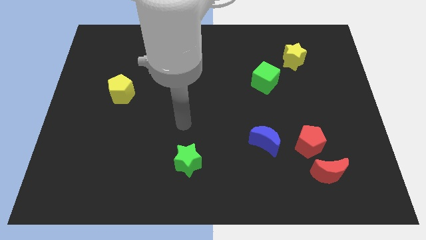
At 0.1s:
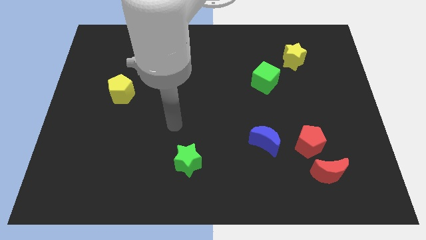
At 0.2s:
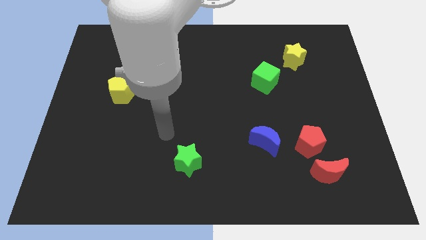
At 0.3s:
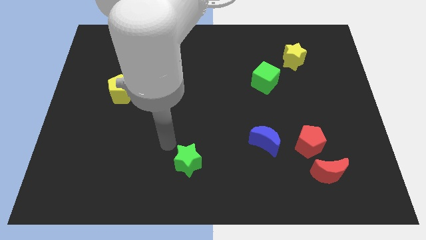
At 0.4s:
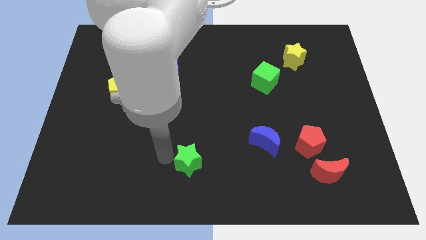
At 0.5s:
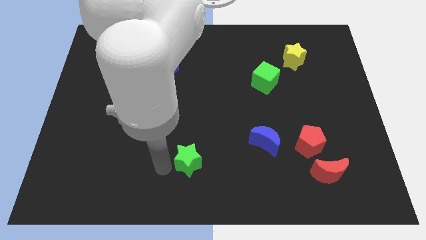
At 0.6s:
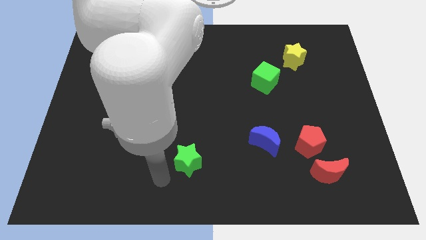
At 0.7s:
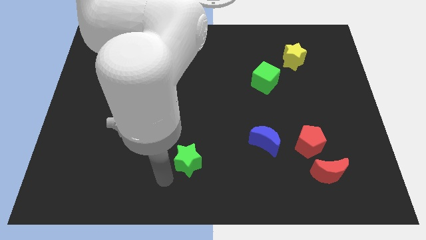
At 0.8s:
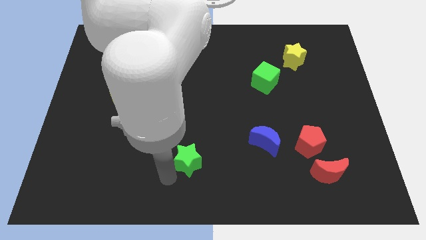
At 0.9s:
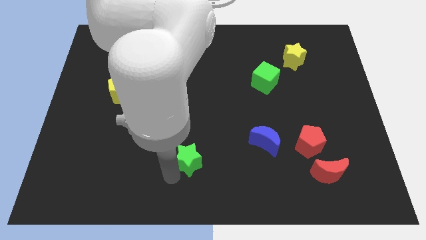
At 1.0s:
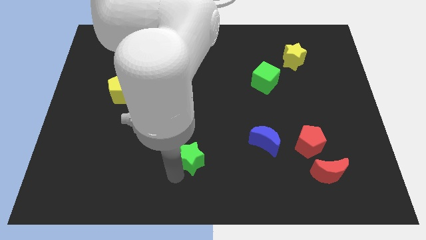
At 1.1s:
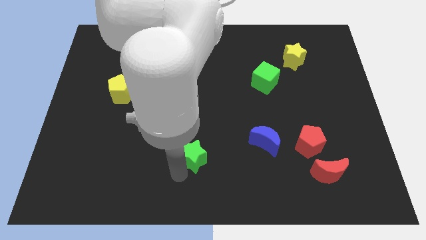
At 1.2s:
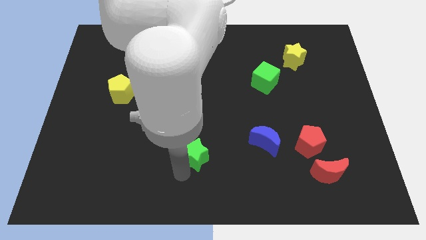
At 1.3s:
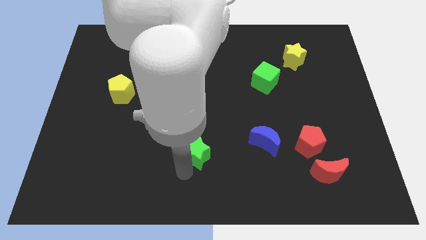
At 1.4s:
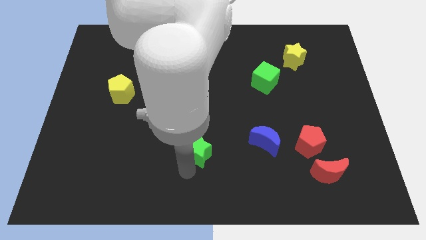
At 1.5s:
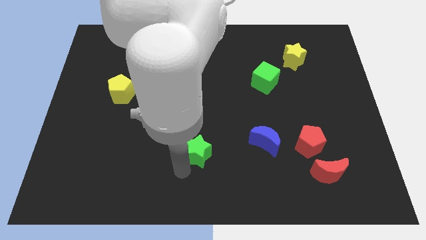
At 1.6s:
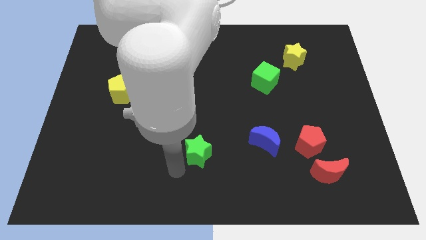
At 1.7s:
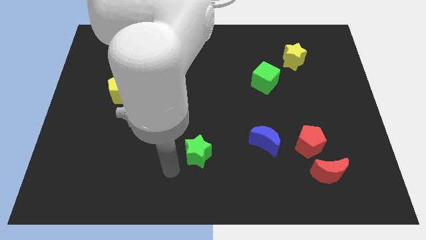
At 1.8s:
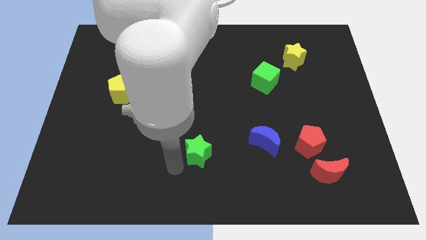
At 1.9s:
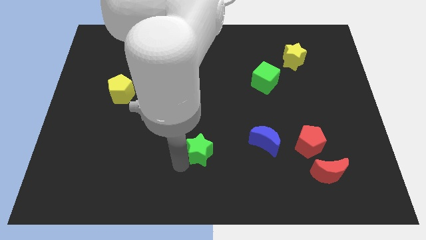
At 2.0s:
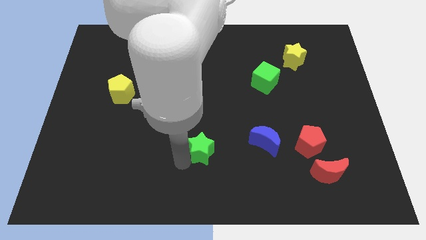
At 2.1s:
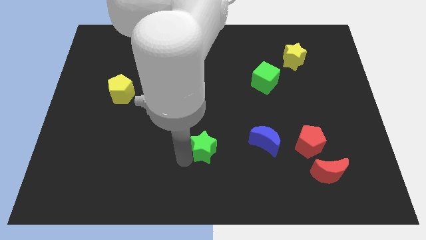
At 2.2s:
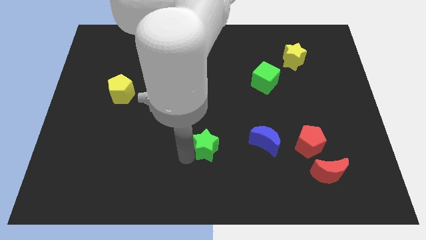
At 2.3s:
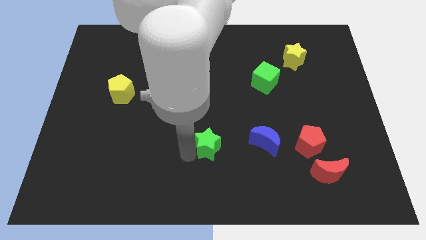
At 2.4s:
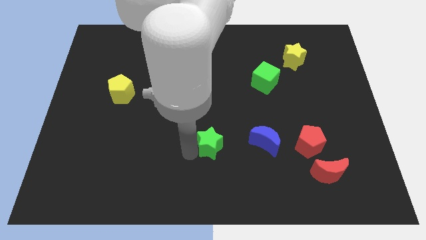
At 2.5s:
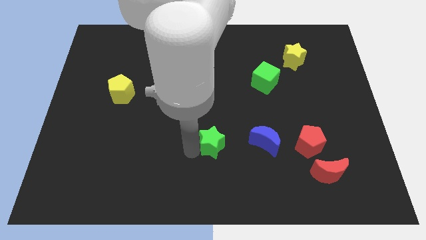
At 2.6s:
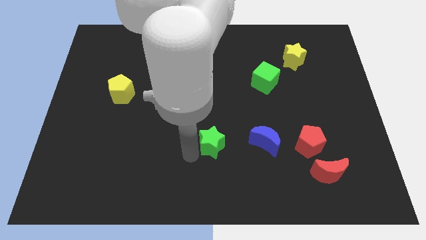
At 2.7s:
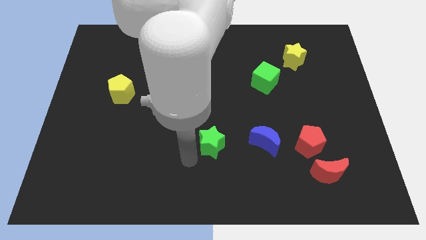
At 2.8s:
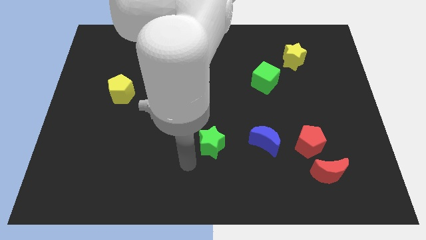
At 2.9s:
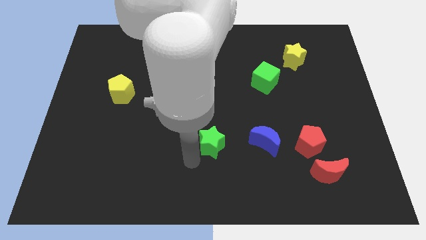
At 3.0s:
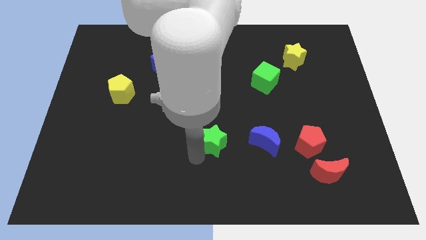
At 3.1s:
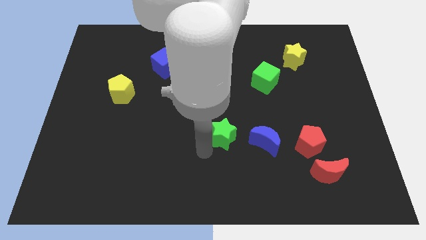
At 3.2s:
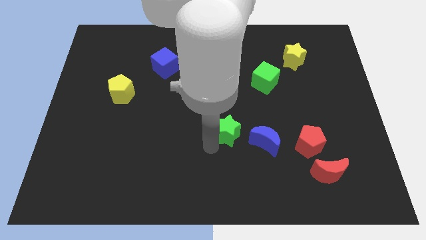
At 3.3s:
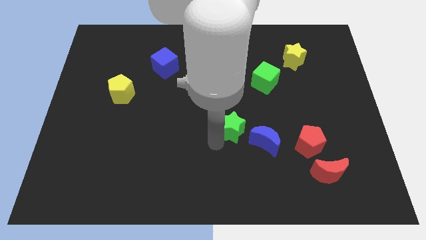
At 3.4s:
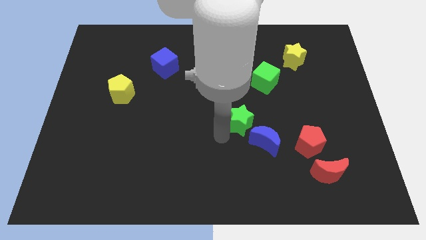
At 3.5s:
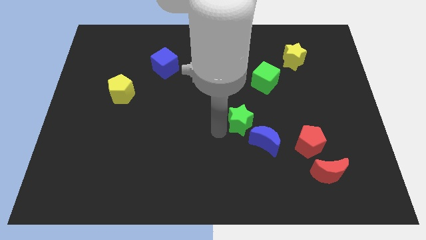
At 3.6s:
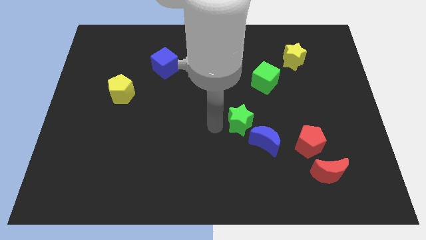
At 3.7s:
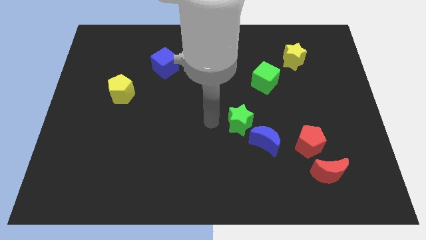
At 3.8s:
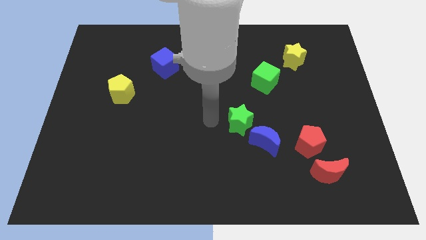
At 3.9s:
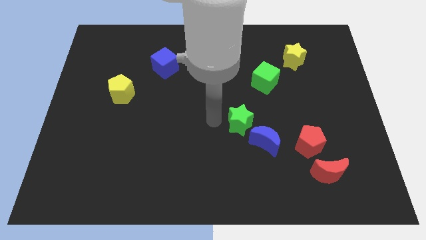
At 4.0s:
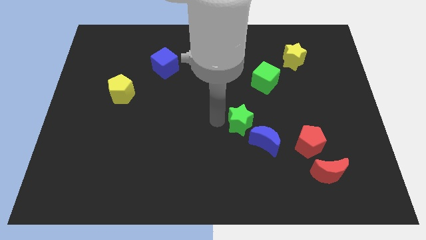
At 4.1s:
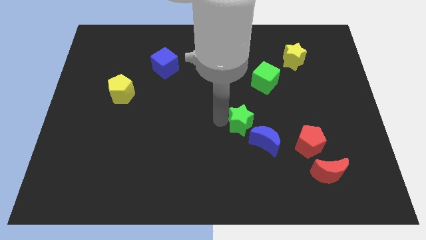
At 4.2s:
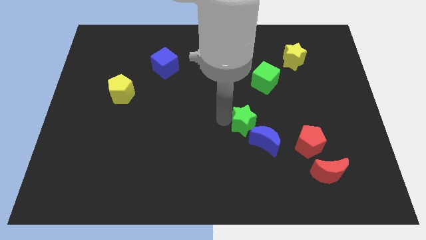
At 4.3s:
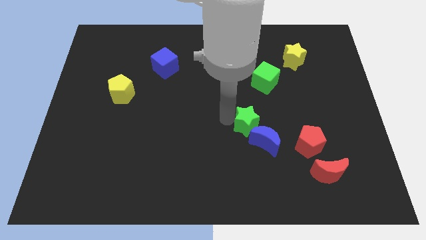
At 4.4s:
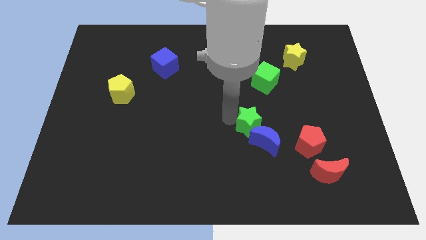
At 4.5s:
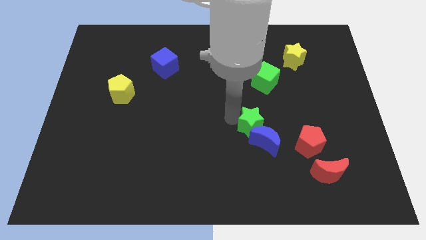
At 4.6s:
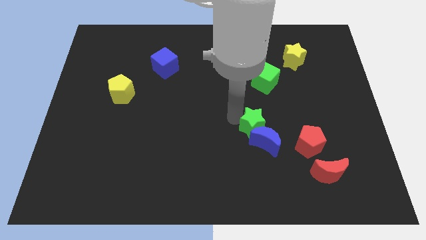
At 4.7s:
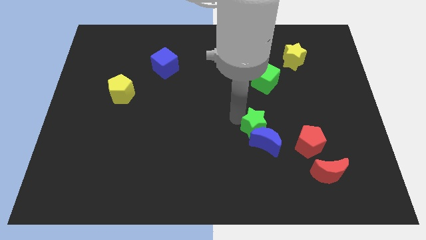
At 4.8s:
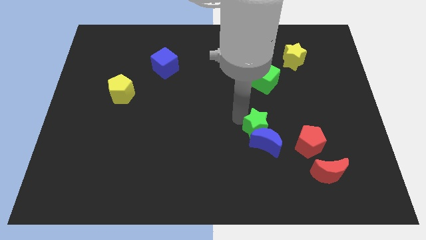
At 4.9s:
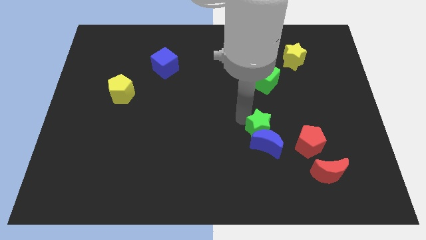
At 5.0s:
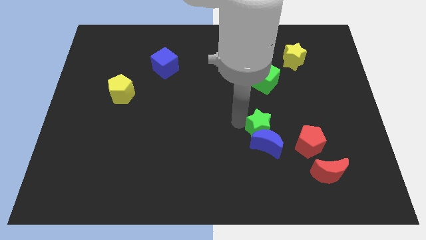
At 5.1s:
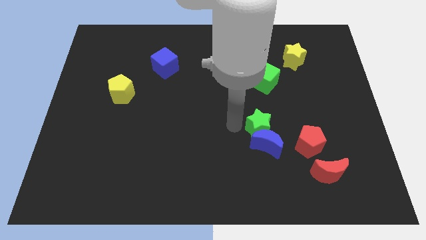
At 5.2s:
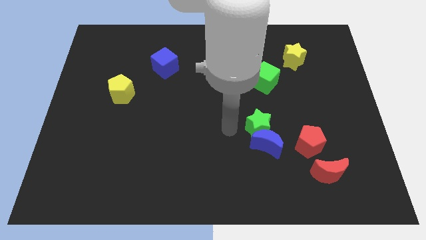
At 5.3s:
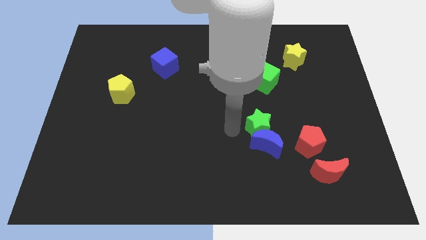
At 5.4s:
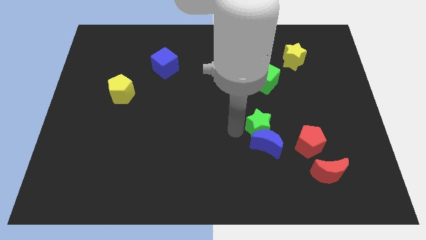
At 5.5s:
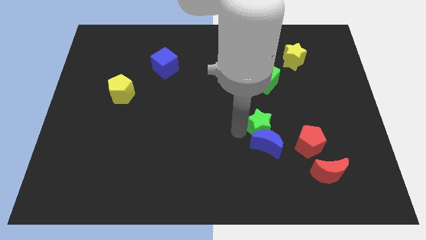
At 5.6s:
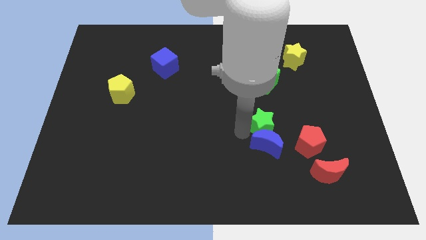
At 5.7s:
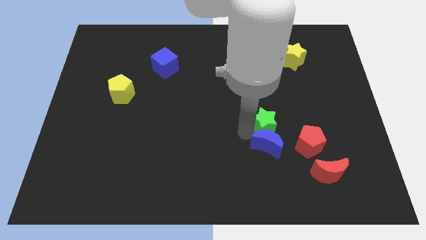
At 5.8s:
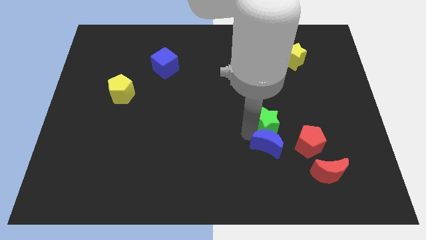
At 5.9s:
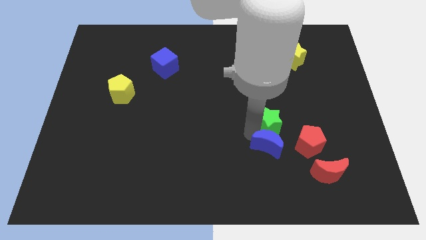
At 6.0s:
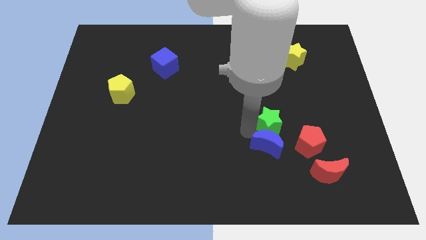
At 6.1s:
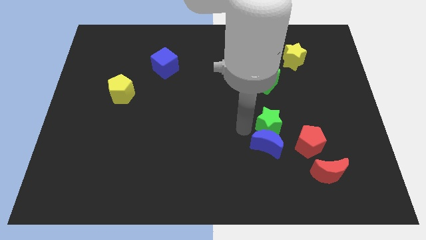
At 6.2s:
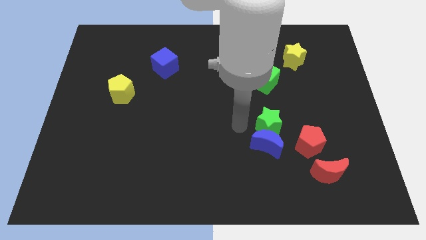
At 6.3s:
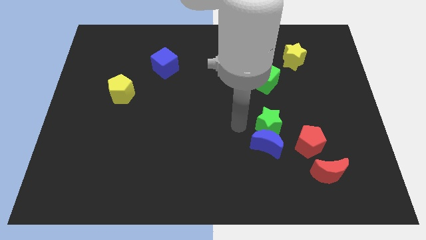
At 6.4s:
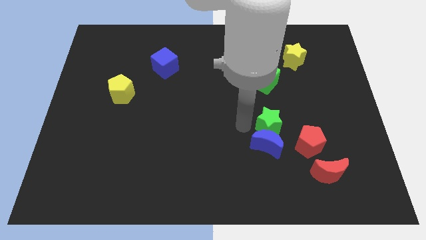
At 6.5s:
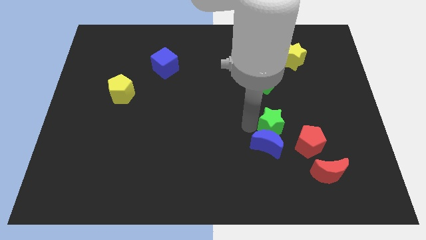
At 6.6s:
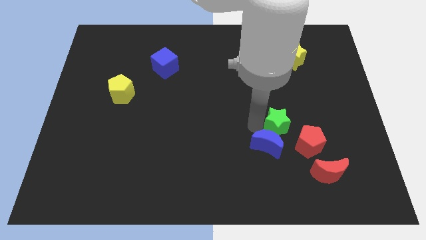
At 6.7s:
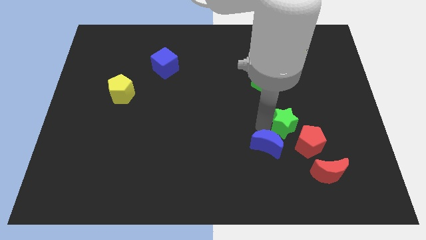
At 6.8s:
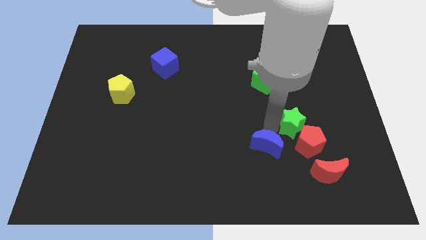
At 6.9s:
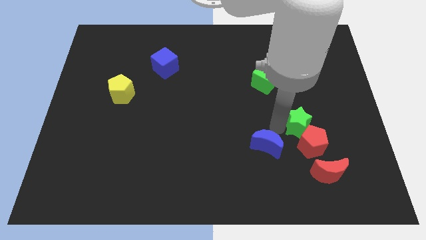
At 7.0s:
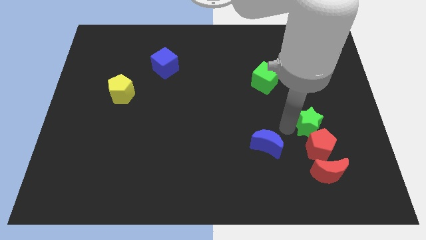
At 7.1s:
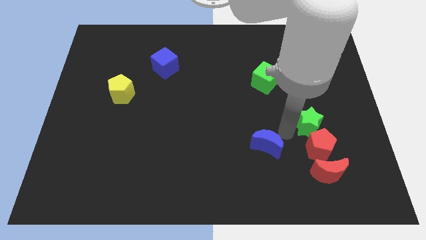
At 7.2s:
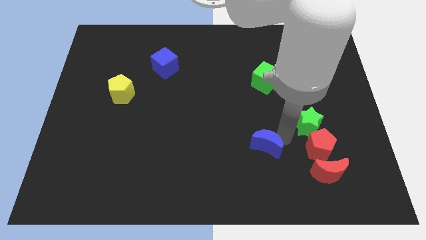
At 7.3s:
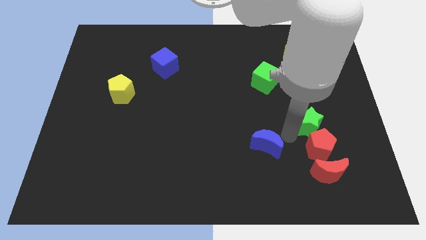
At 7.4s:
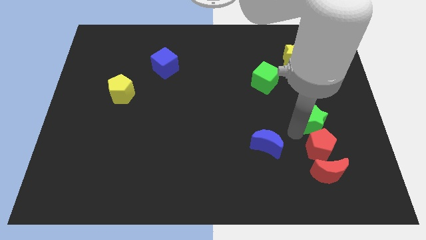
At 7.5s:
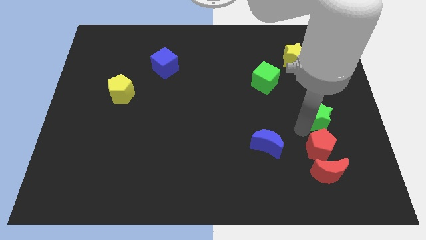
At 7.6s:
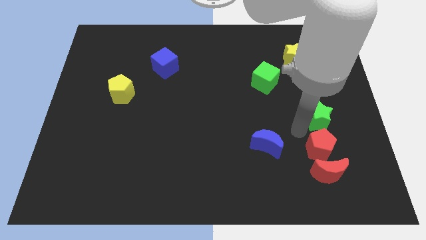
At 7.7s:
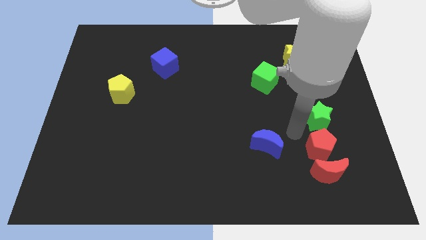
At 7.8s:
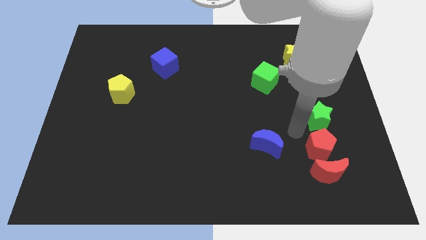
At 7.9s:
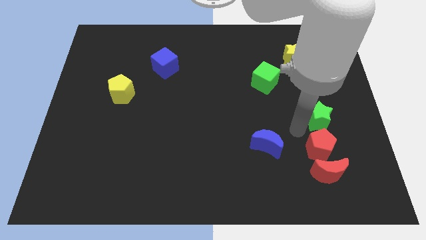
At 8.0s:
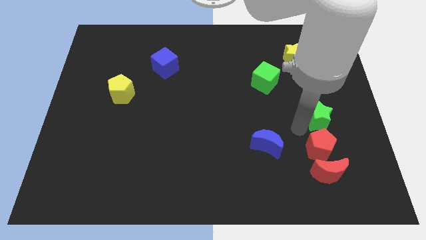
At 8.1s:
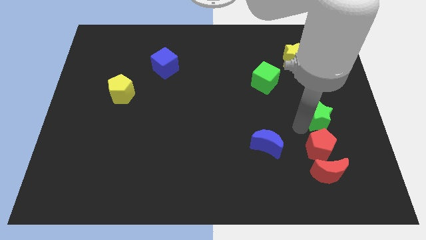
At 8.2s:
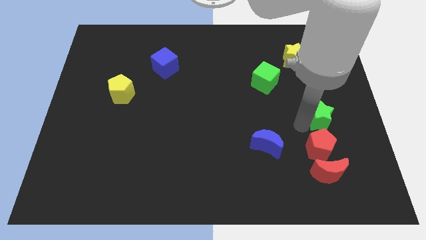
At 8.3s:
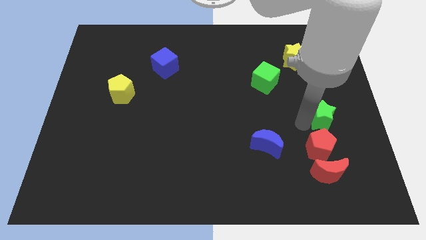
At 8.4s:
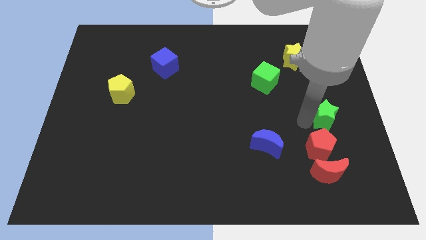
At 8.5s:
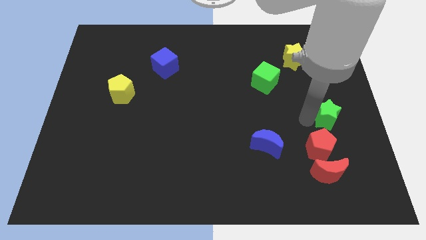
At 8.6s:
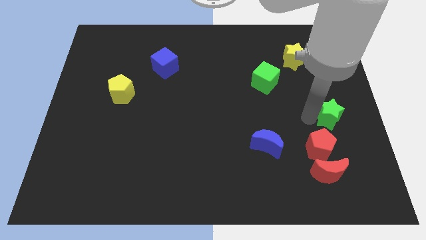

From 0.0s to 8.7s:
push the green star to the center right
